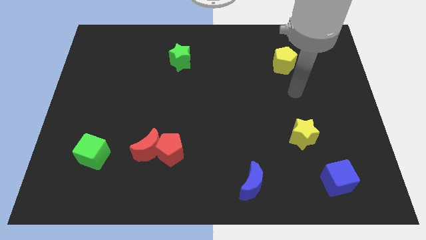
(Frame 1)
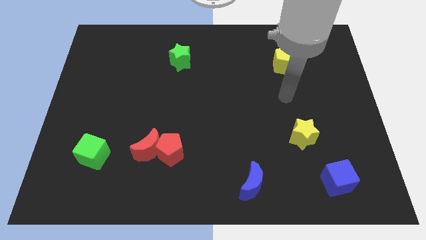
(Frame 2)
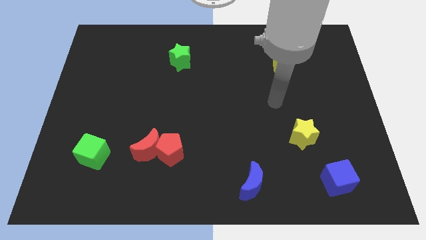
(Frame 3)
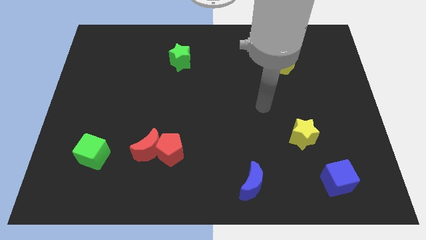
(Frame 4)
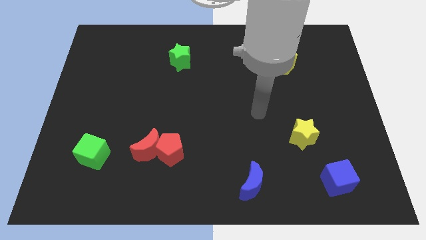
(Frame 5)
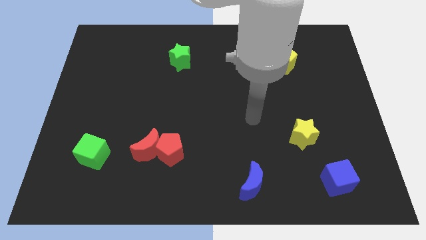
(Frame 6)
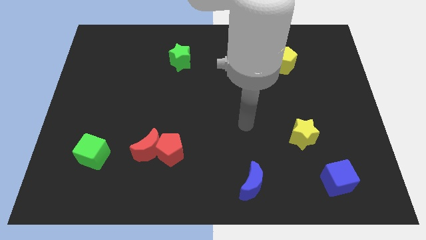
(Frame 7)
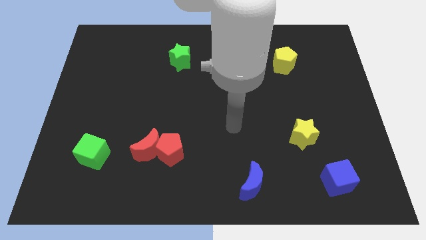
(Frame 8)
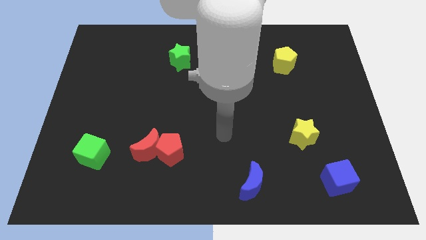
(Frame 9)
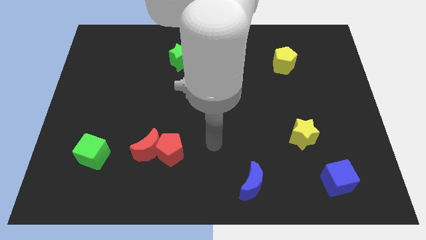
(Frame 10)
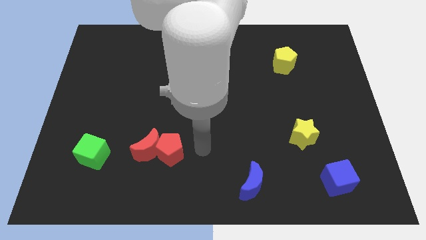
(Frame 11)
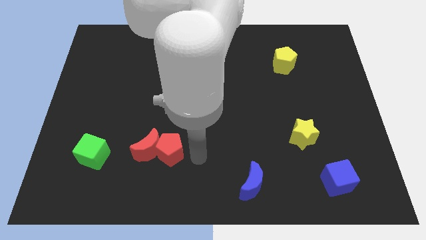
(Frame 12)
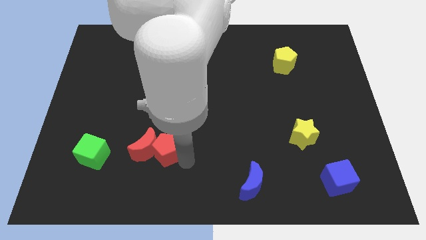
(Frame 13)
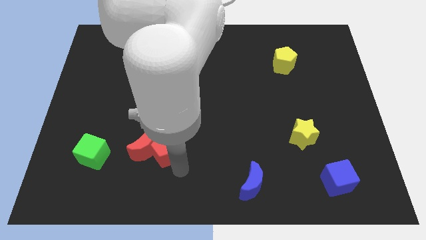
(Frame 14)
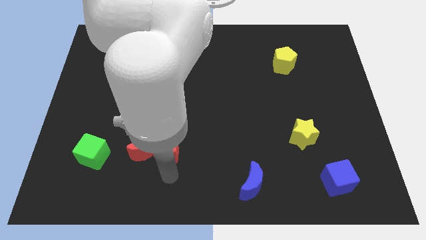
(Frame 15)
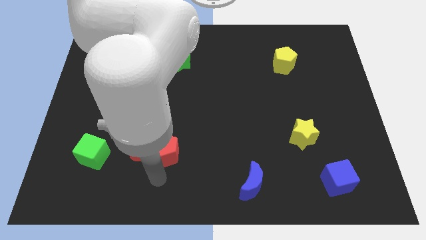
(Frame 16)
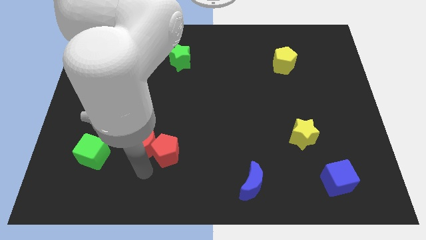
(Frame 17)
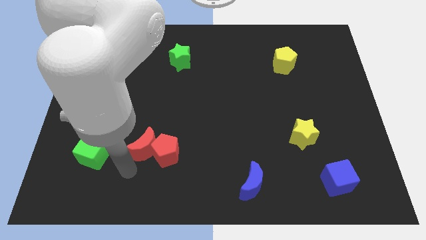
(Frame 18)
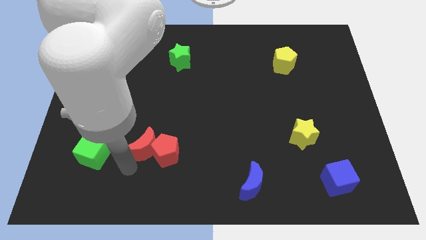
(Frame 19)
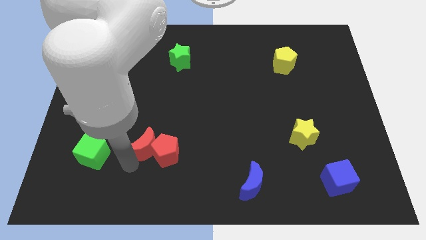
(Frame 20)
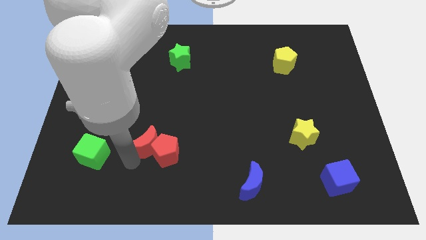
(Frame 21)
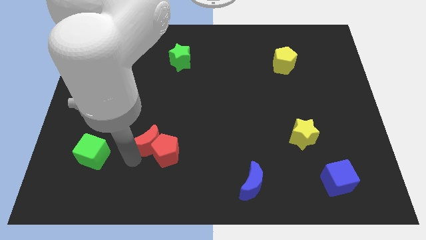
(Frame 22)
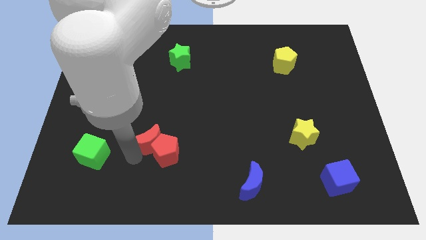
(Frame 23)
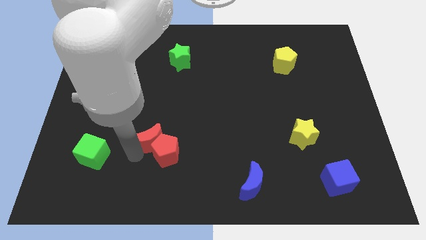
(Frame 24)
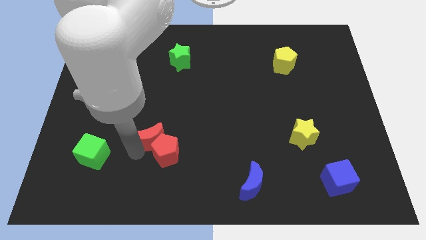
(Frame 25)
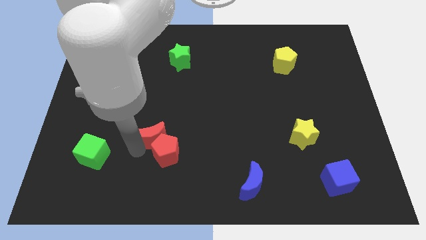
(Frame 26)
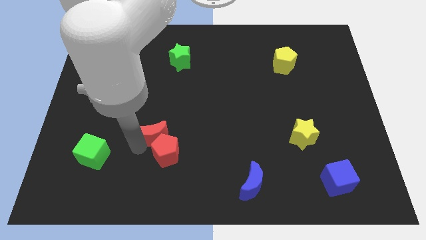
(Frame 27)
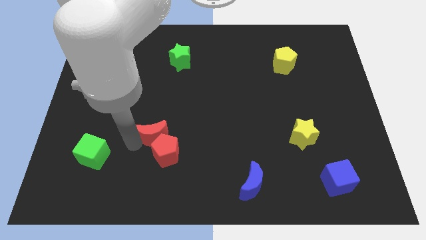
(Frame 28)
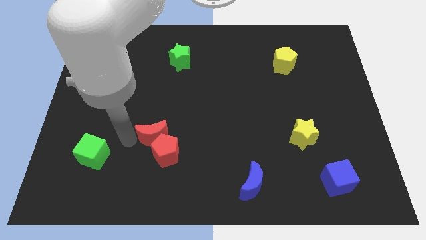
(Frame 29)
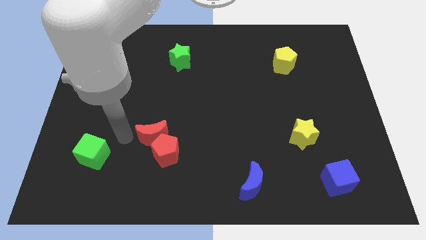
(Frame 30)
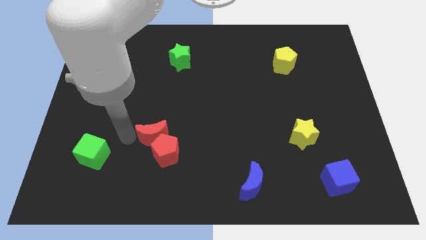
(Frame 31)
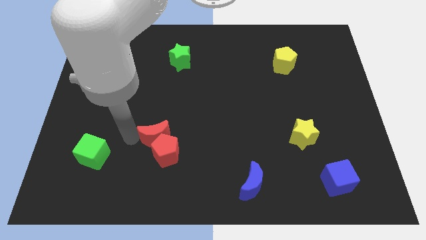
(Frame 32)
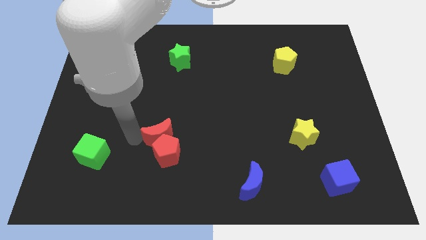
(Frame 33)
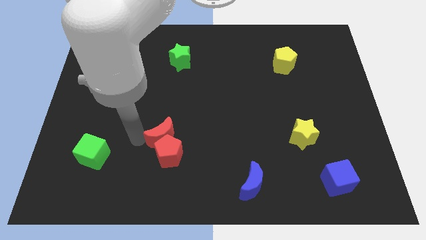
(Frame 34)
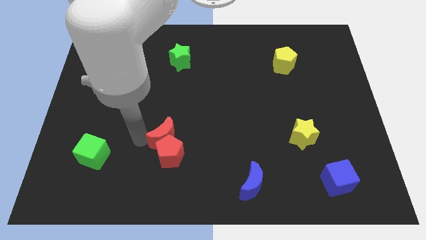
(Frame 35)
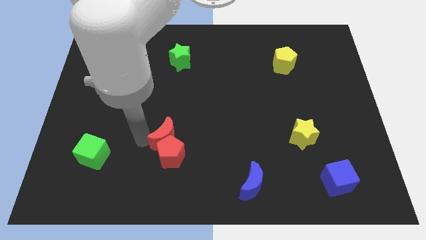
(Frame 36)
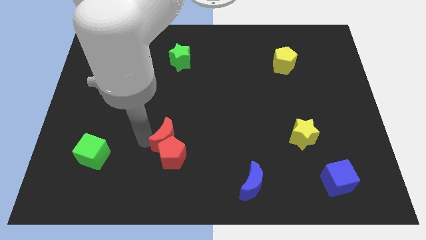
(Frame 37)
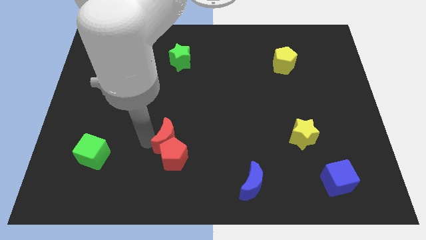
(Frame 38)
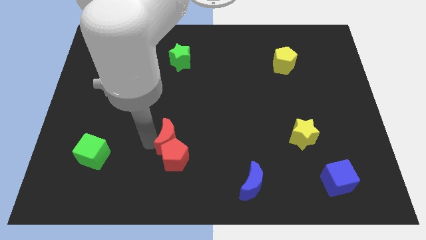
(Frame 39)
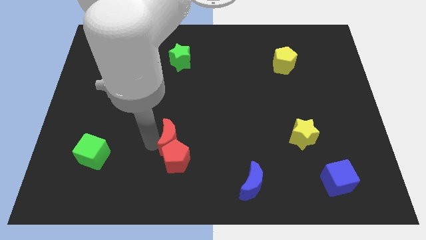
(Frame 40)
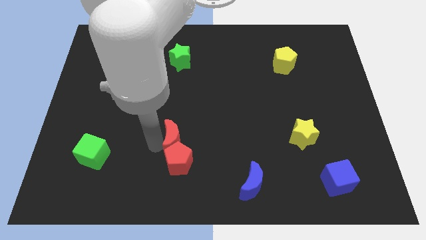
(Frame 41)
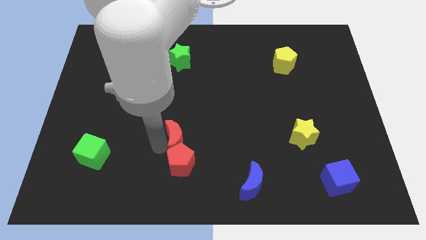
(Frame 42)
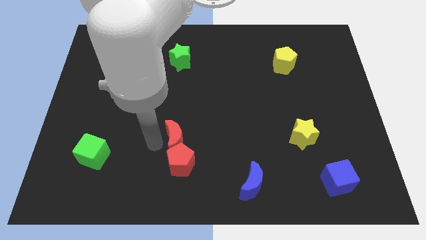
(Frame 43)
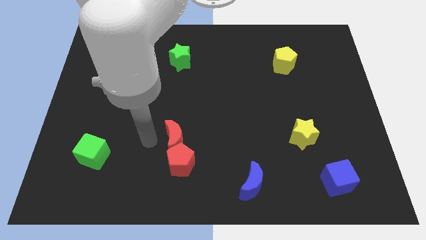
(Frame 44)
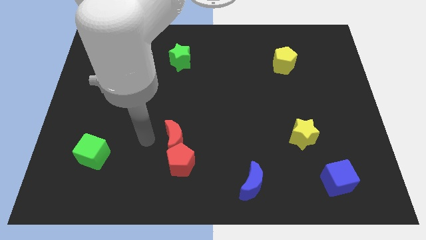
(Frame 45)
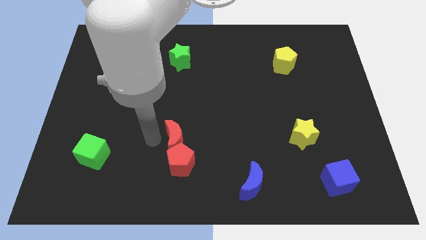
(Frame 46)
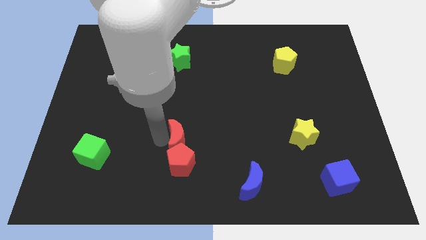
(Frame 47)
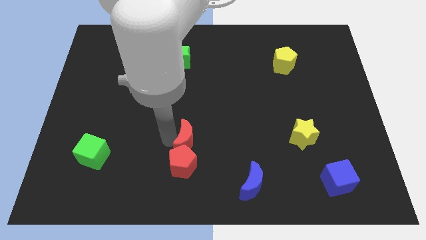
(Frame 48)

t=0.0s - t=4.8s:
push the red moon right a little

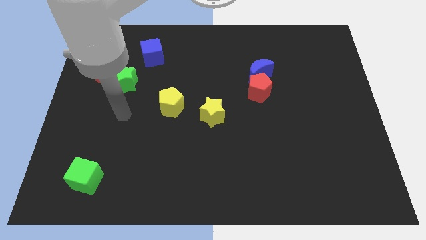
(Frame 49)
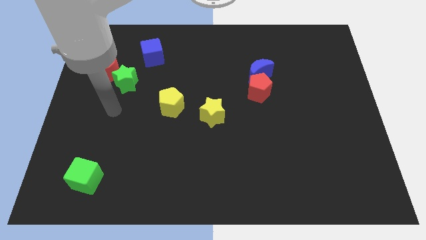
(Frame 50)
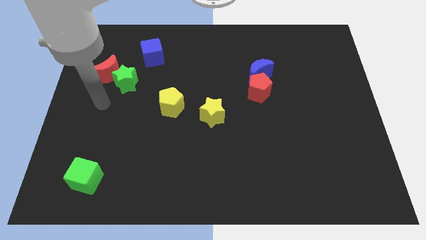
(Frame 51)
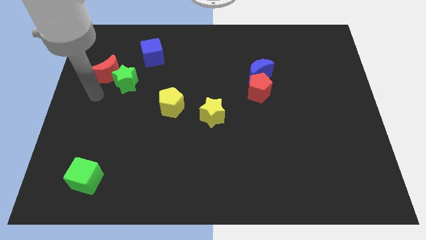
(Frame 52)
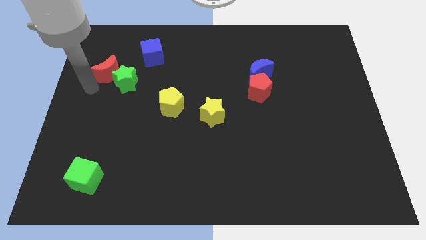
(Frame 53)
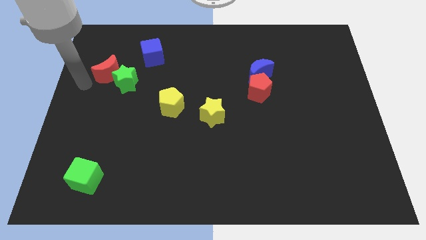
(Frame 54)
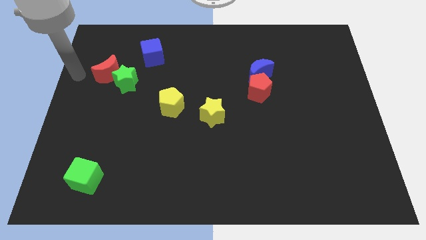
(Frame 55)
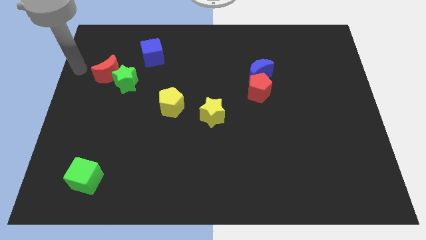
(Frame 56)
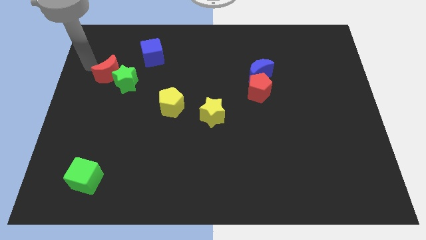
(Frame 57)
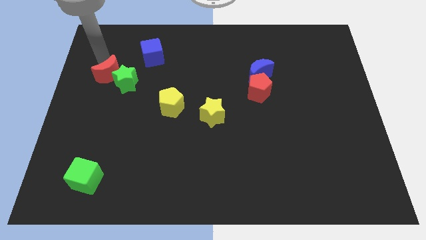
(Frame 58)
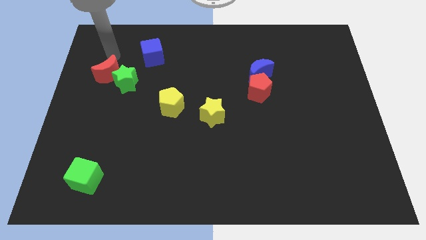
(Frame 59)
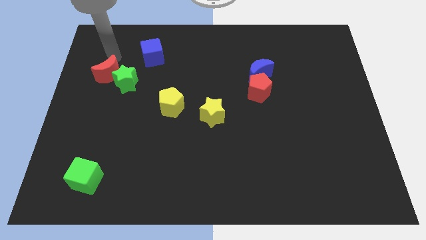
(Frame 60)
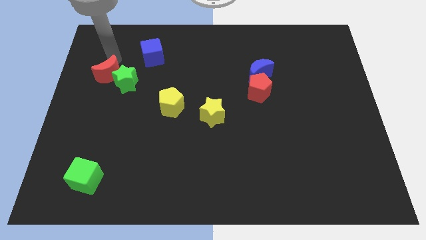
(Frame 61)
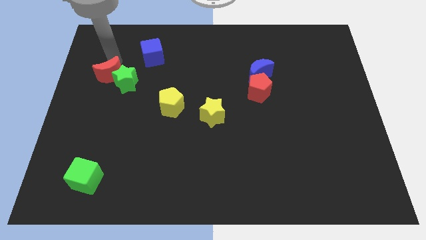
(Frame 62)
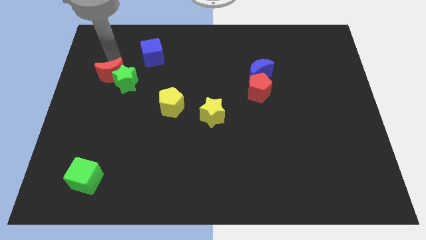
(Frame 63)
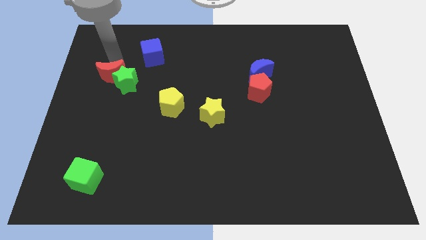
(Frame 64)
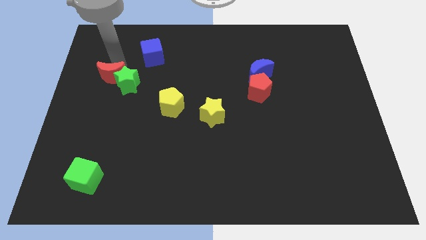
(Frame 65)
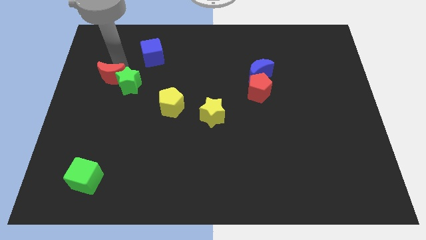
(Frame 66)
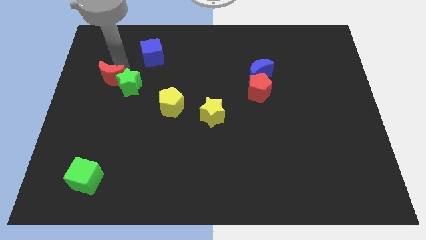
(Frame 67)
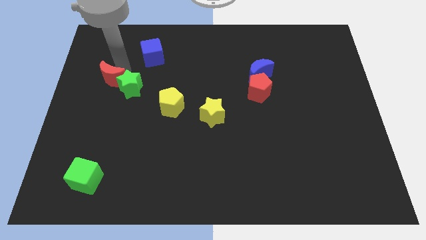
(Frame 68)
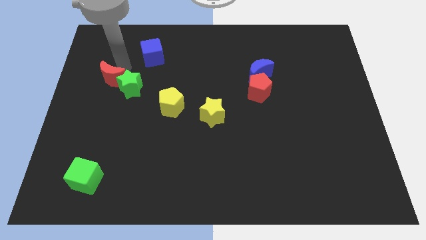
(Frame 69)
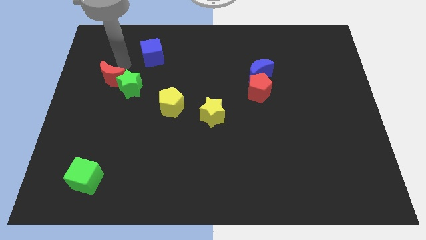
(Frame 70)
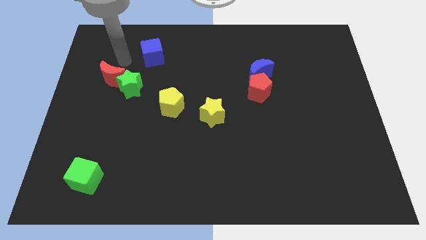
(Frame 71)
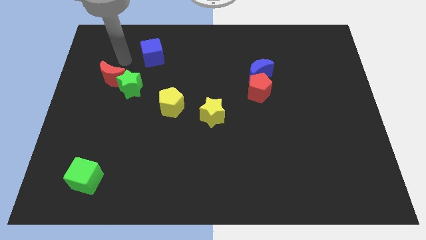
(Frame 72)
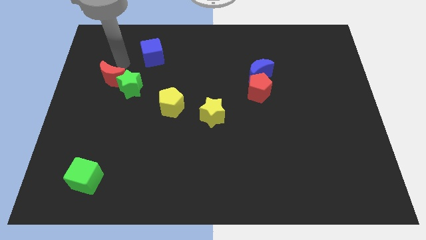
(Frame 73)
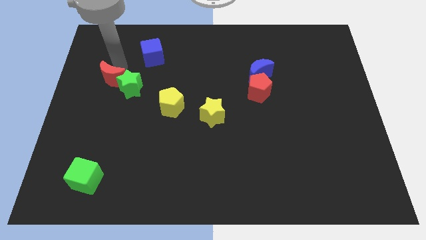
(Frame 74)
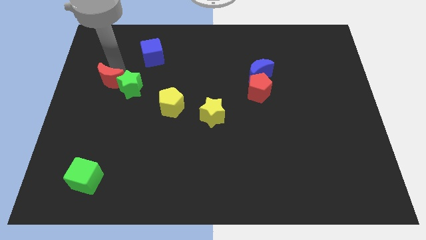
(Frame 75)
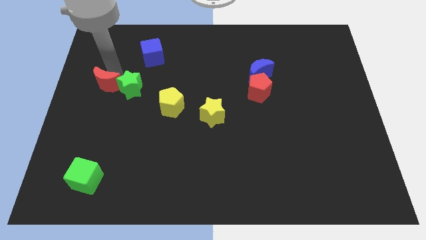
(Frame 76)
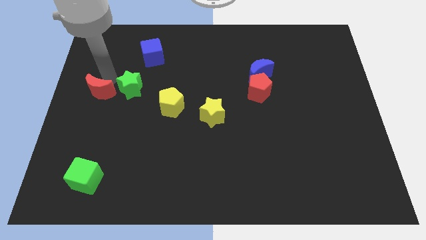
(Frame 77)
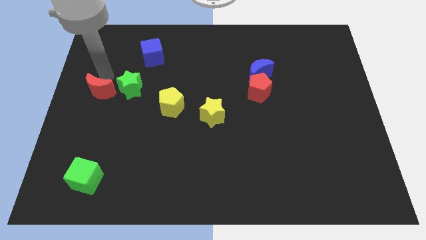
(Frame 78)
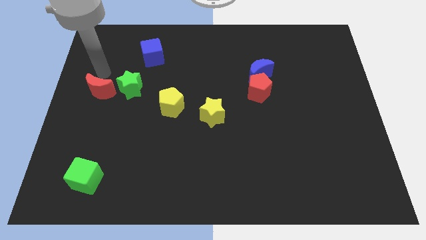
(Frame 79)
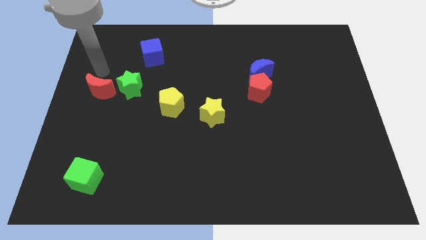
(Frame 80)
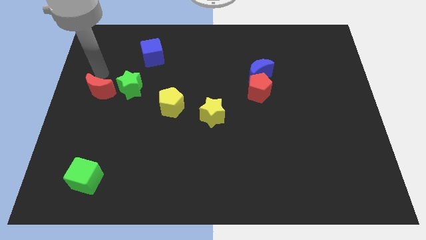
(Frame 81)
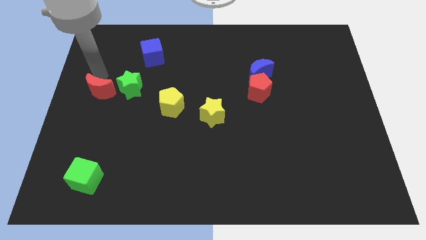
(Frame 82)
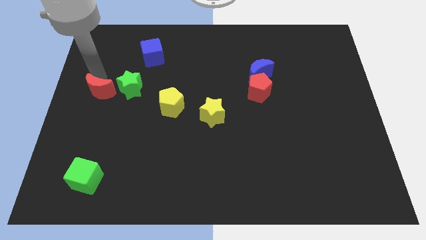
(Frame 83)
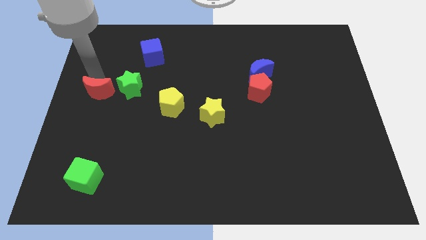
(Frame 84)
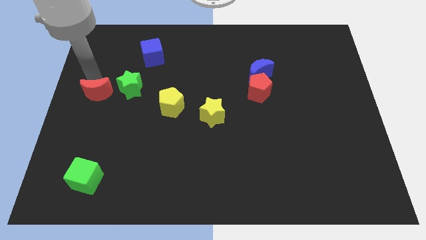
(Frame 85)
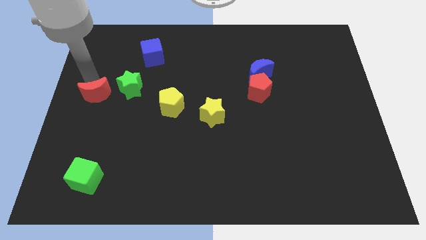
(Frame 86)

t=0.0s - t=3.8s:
push the red moon somewhat down
